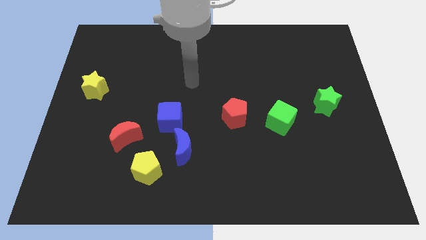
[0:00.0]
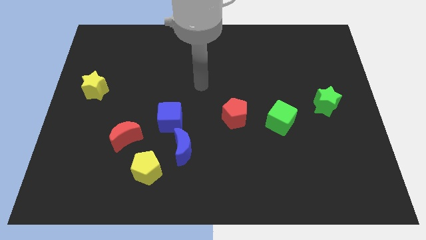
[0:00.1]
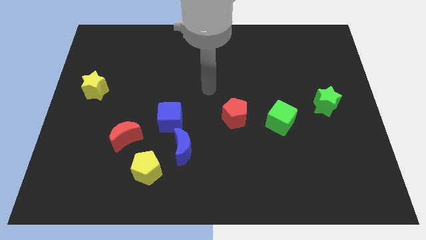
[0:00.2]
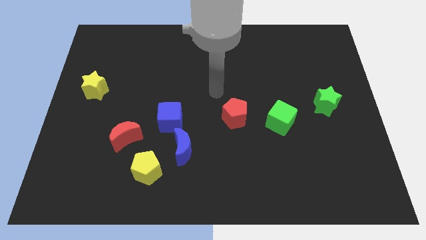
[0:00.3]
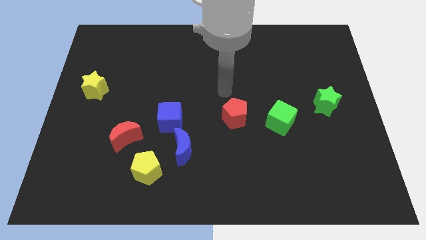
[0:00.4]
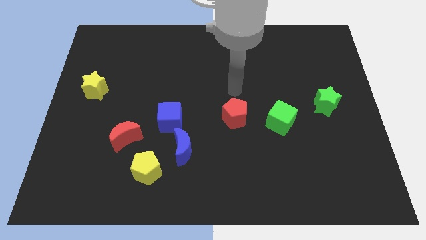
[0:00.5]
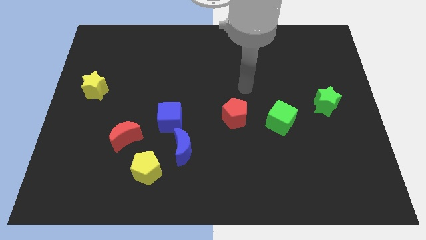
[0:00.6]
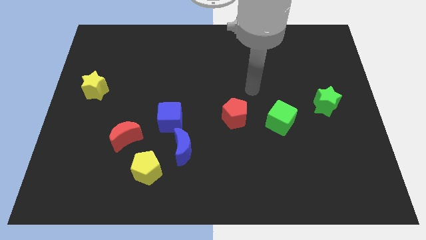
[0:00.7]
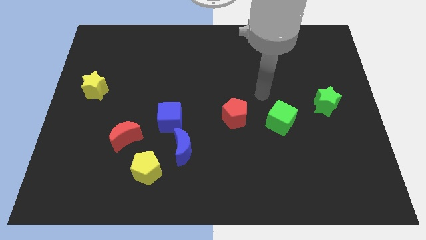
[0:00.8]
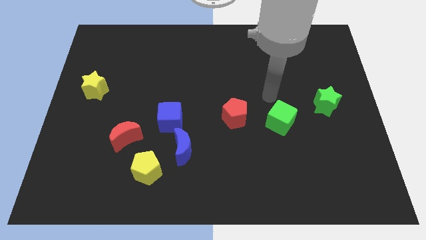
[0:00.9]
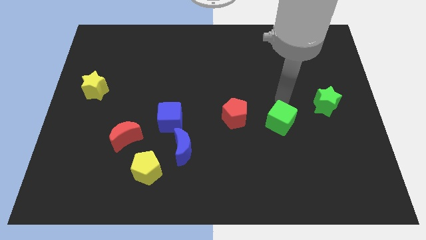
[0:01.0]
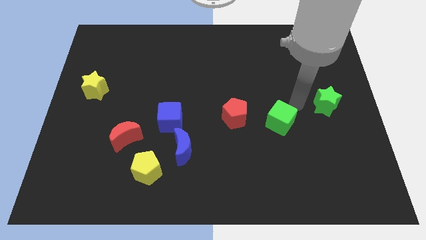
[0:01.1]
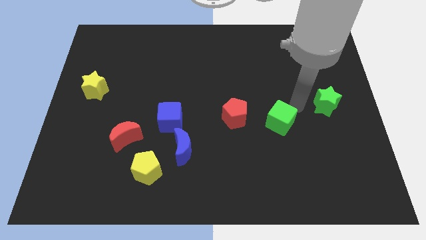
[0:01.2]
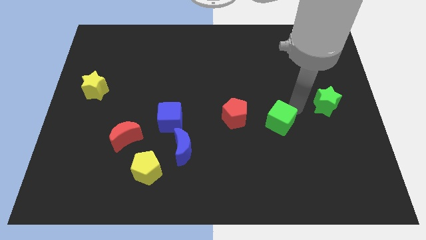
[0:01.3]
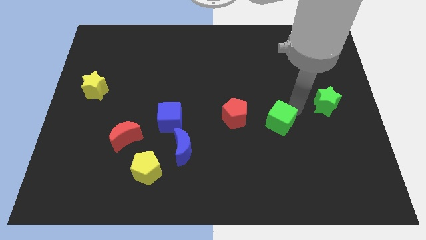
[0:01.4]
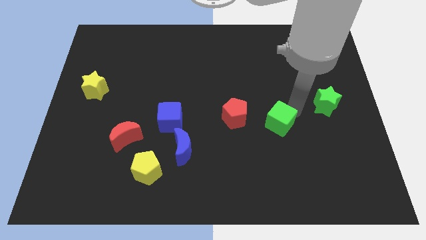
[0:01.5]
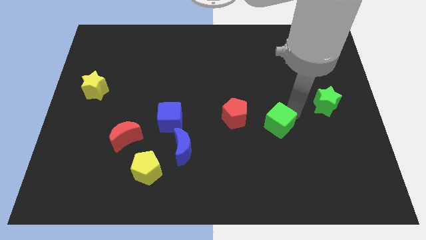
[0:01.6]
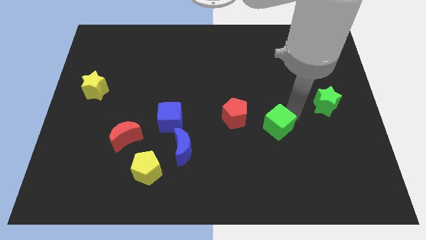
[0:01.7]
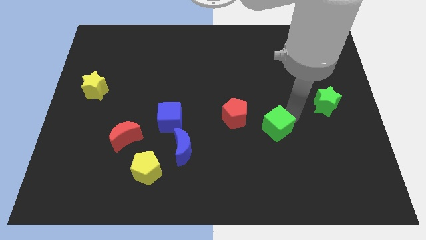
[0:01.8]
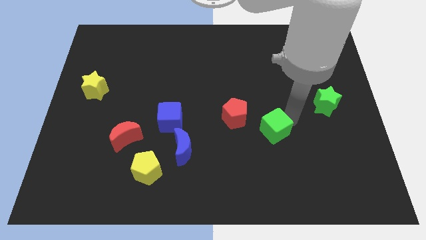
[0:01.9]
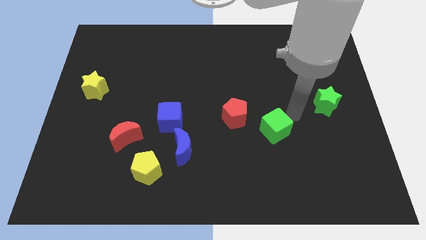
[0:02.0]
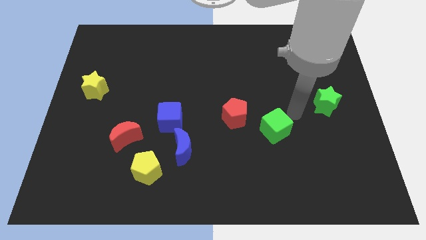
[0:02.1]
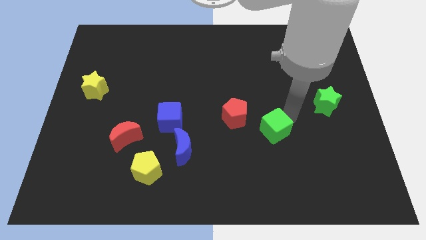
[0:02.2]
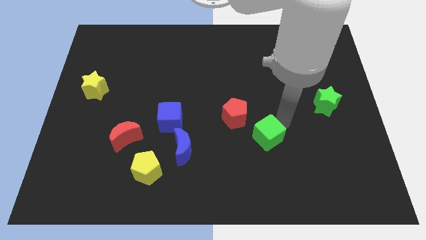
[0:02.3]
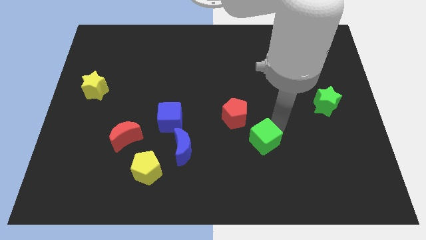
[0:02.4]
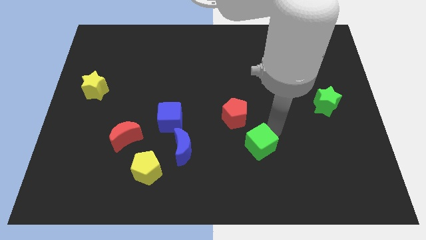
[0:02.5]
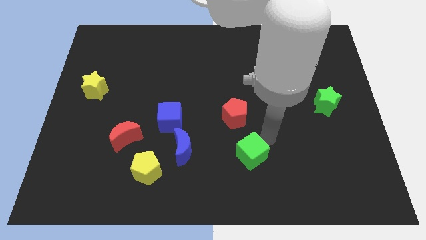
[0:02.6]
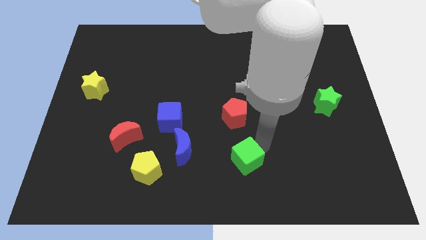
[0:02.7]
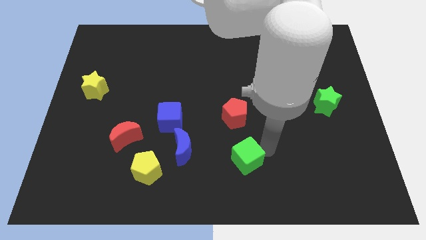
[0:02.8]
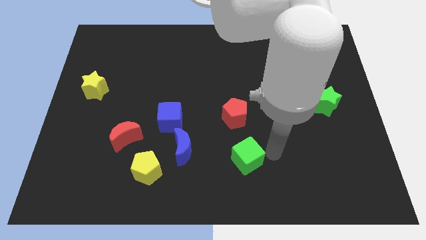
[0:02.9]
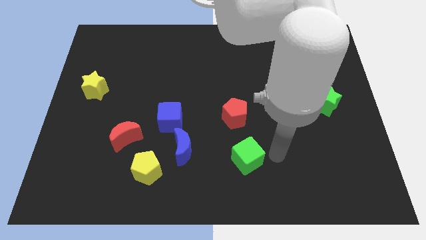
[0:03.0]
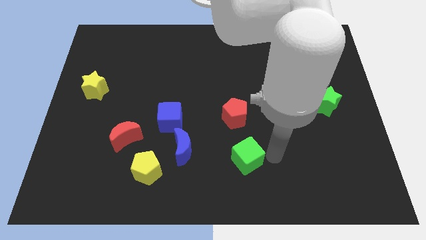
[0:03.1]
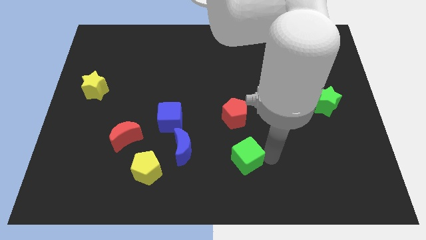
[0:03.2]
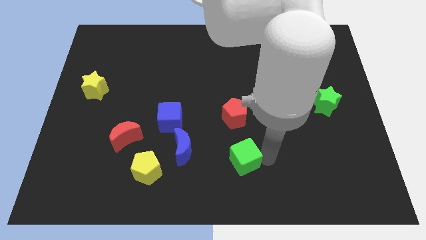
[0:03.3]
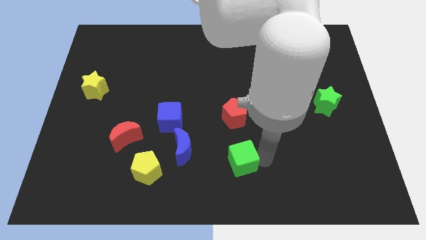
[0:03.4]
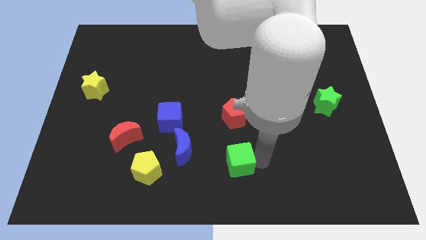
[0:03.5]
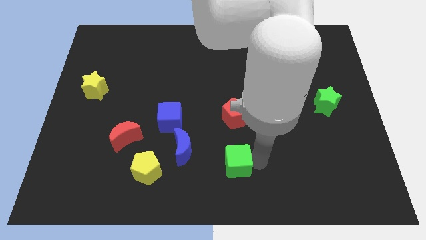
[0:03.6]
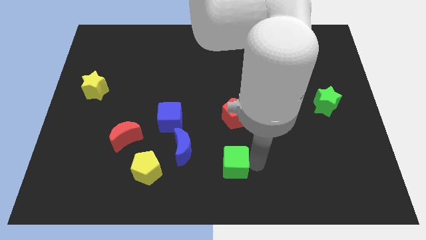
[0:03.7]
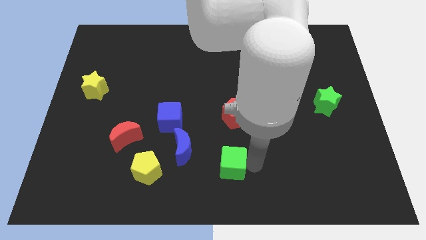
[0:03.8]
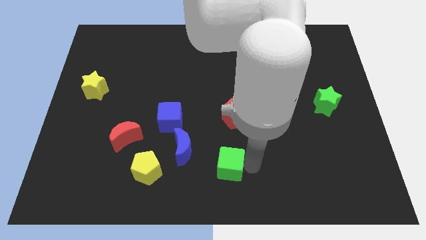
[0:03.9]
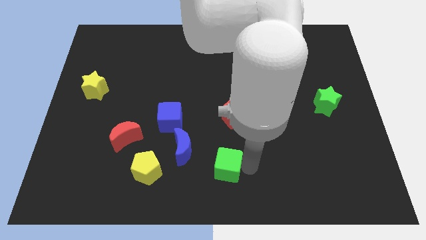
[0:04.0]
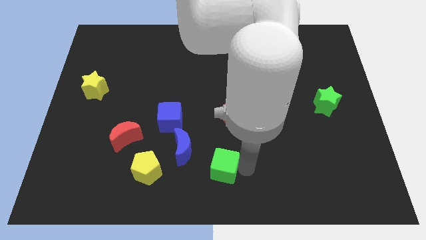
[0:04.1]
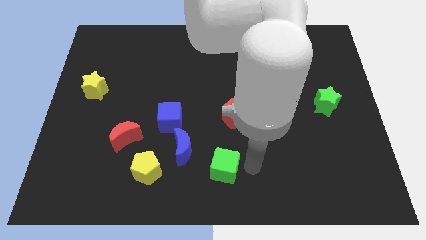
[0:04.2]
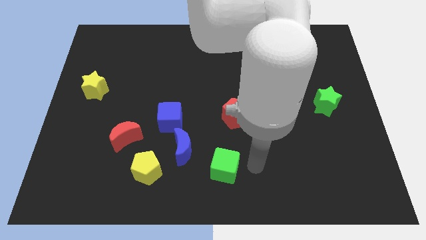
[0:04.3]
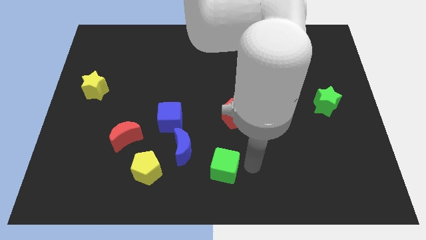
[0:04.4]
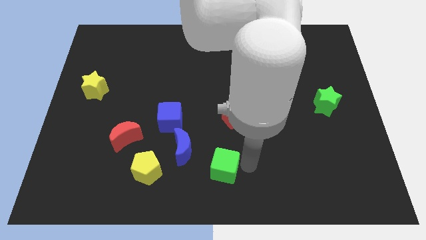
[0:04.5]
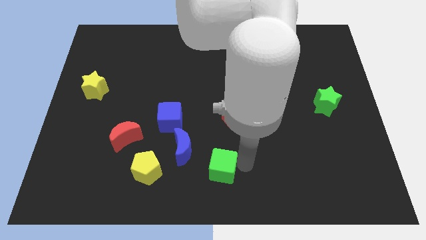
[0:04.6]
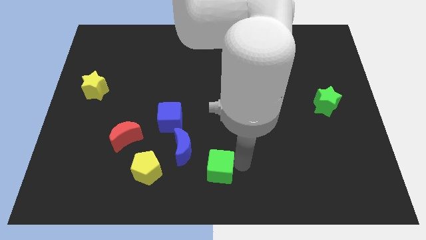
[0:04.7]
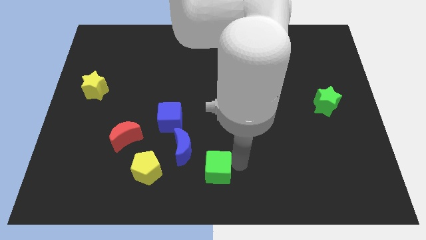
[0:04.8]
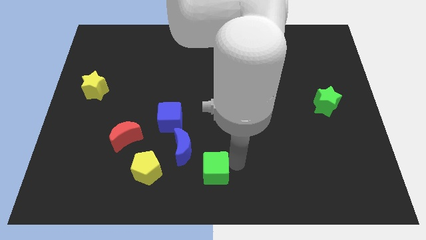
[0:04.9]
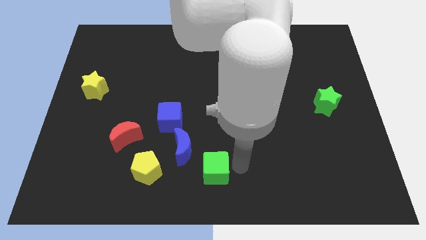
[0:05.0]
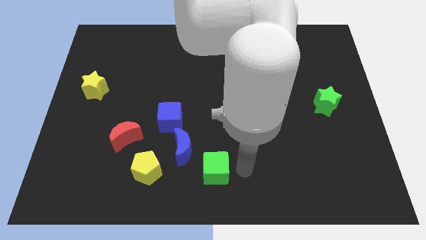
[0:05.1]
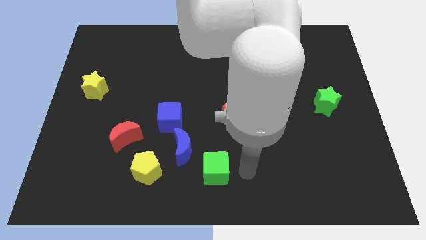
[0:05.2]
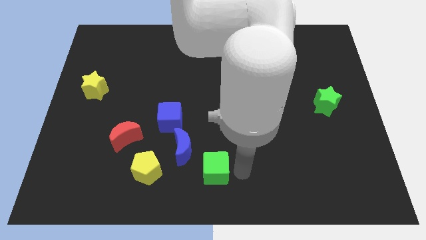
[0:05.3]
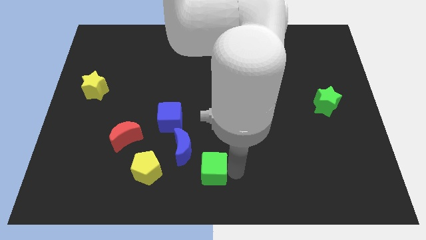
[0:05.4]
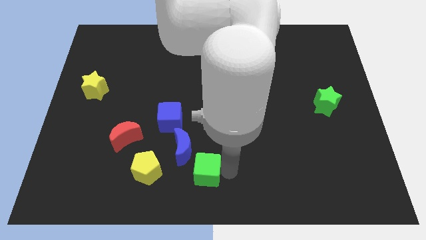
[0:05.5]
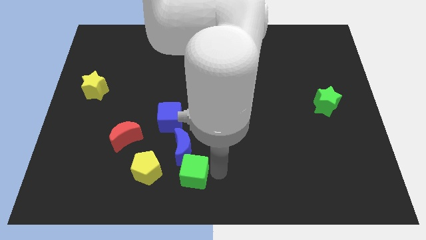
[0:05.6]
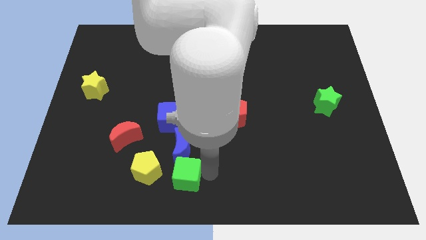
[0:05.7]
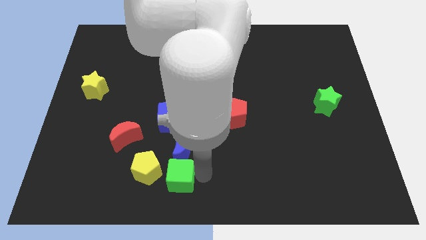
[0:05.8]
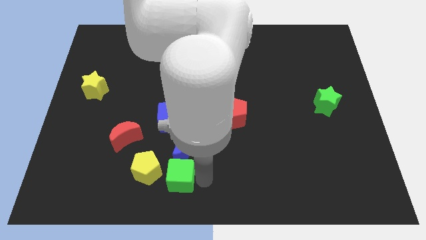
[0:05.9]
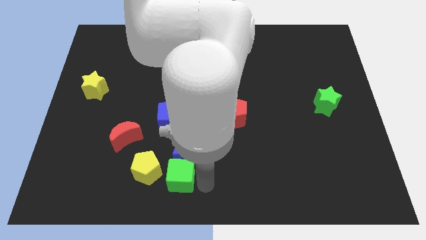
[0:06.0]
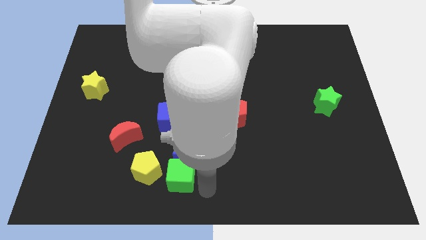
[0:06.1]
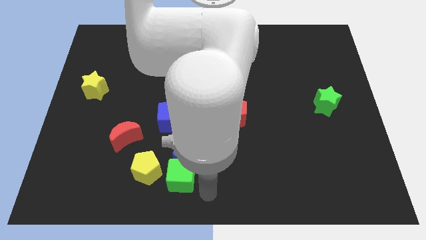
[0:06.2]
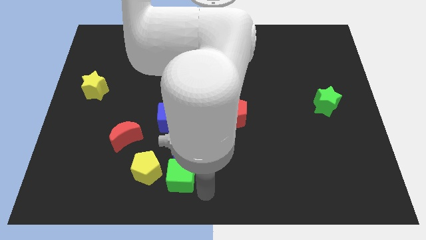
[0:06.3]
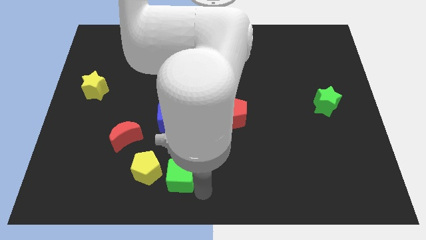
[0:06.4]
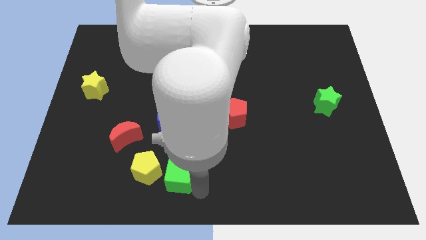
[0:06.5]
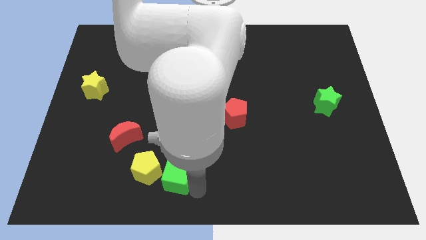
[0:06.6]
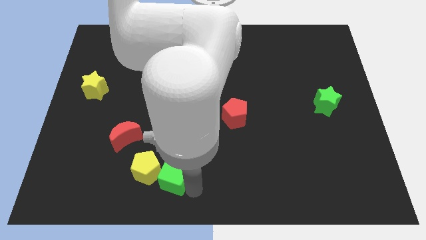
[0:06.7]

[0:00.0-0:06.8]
move the green cube towards the yellow pentagon
